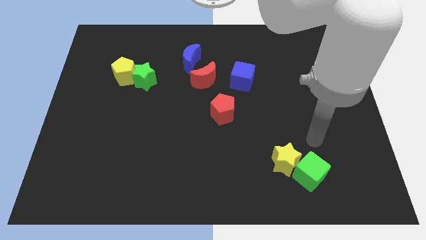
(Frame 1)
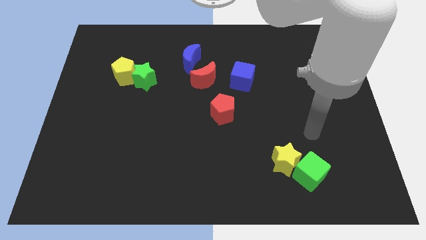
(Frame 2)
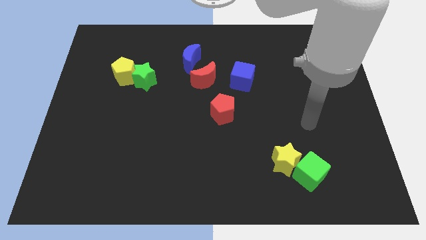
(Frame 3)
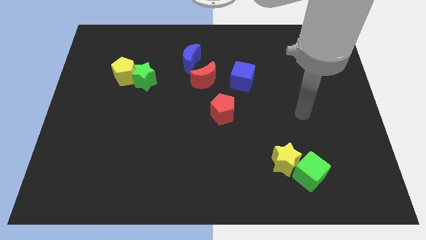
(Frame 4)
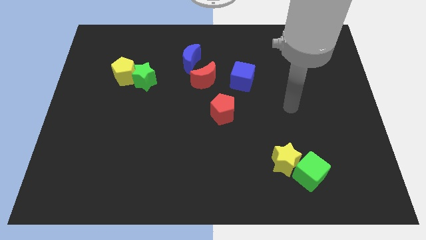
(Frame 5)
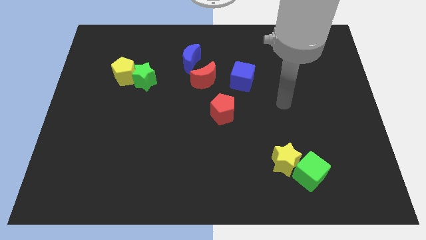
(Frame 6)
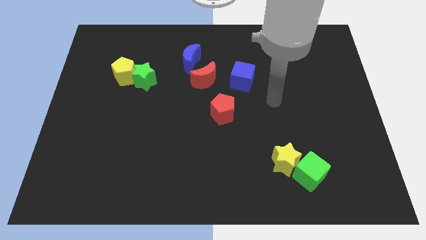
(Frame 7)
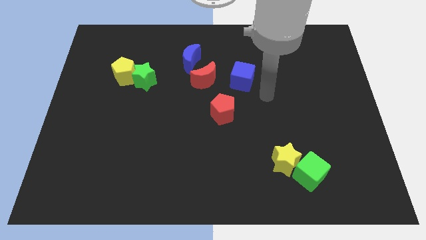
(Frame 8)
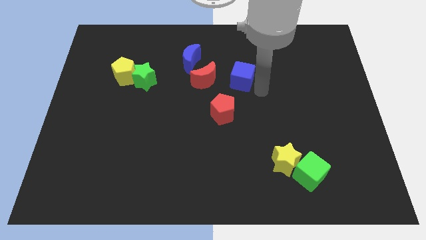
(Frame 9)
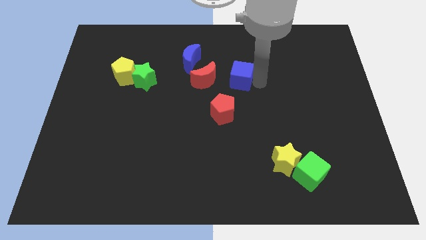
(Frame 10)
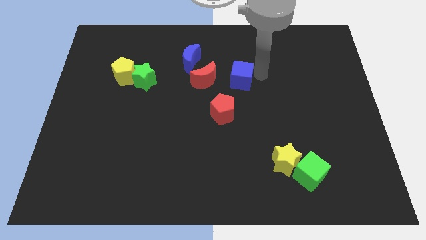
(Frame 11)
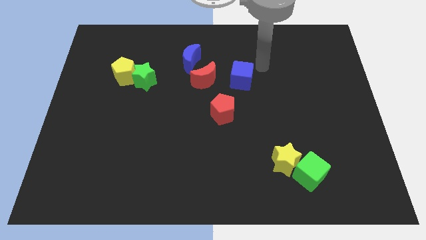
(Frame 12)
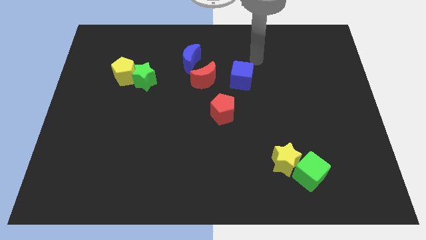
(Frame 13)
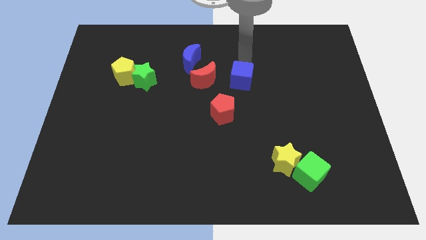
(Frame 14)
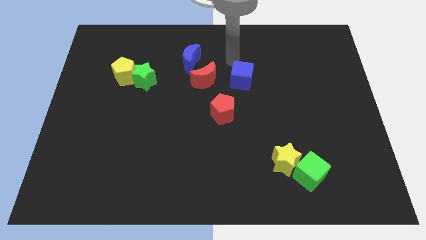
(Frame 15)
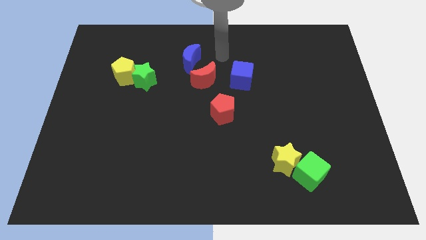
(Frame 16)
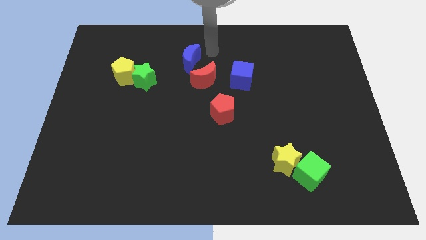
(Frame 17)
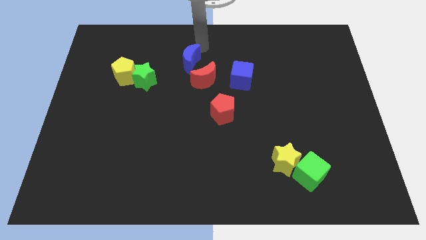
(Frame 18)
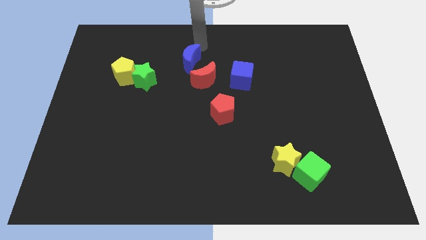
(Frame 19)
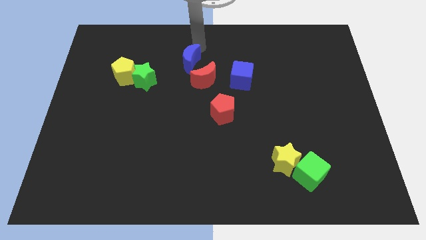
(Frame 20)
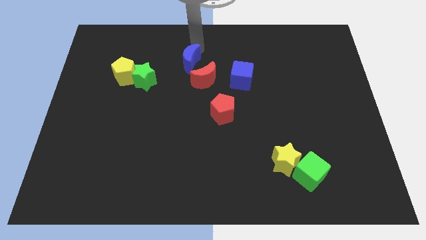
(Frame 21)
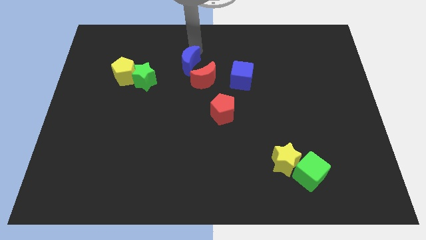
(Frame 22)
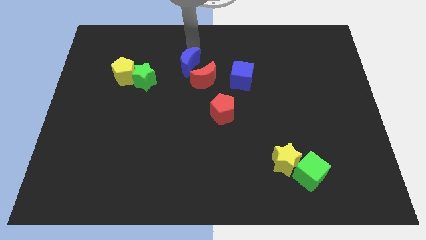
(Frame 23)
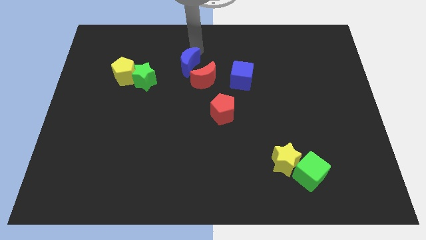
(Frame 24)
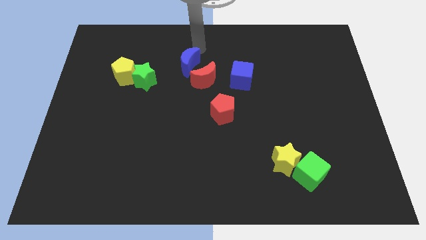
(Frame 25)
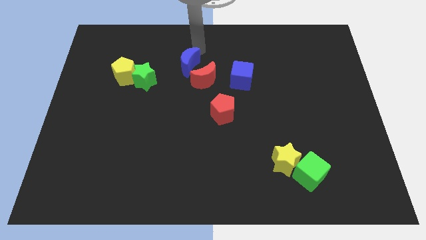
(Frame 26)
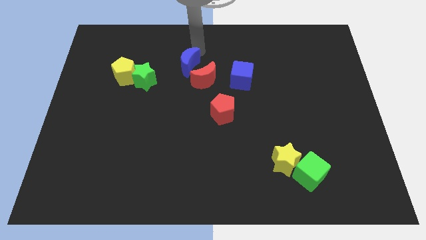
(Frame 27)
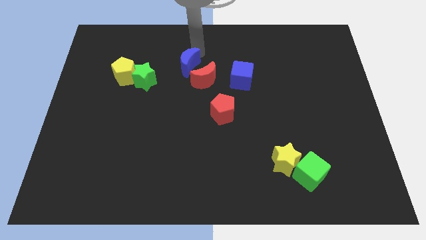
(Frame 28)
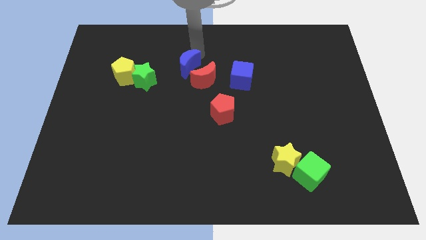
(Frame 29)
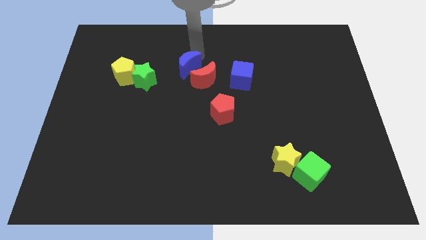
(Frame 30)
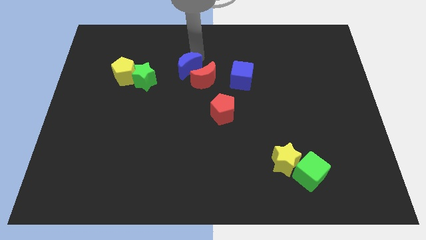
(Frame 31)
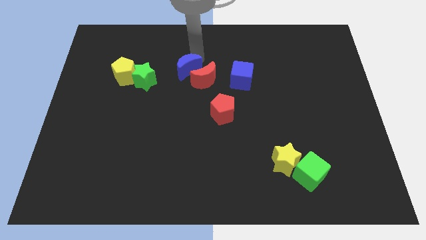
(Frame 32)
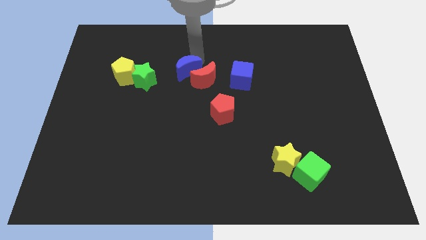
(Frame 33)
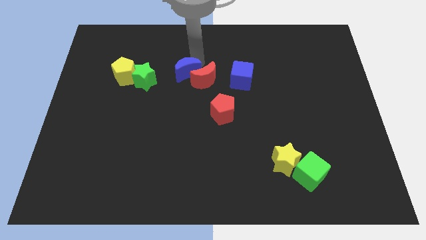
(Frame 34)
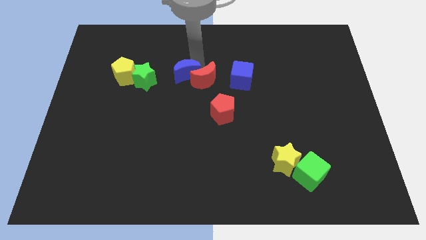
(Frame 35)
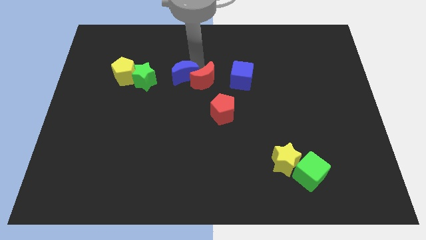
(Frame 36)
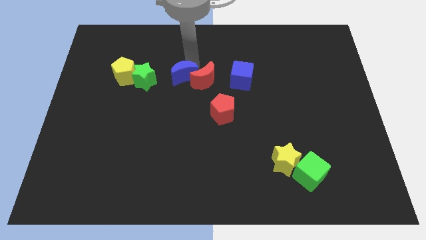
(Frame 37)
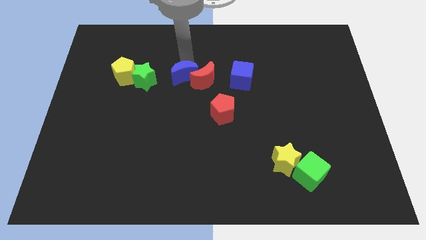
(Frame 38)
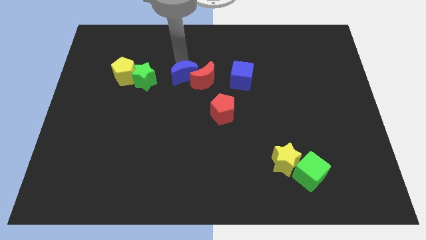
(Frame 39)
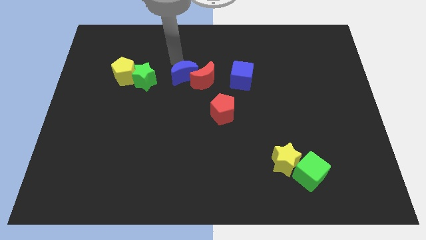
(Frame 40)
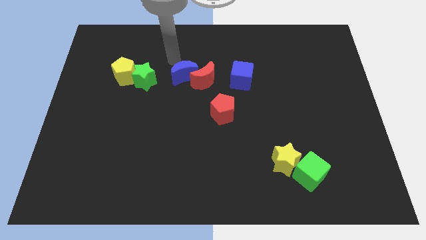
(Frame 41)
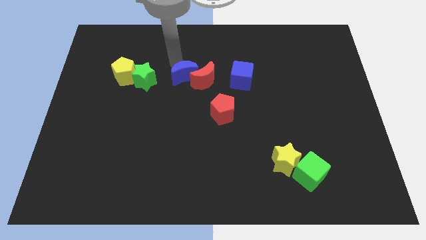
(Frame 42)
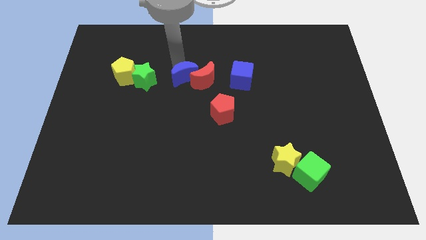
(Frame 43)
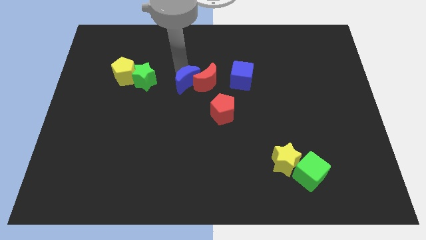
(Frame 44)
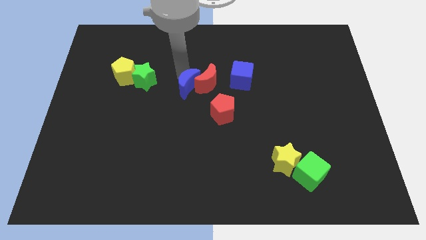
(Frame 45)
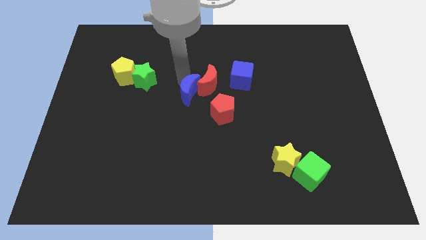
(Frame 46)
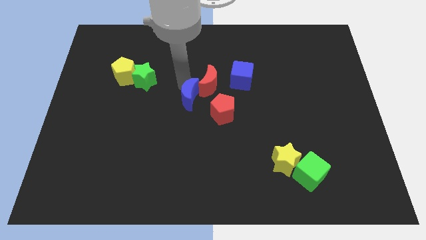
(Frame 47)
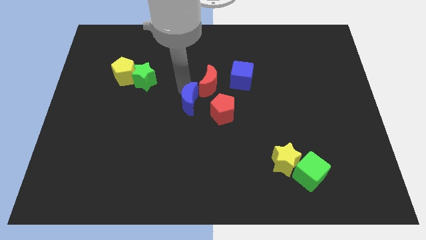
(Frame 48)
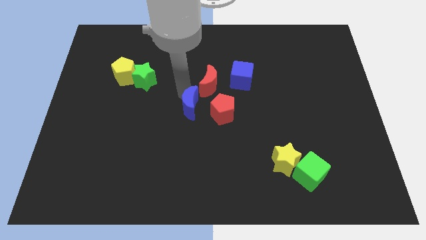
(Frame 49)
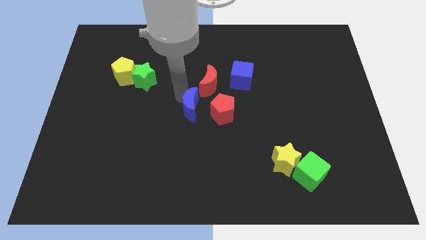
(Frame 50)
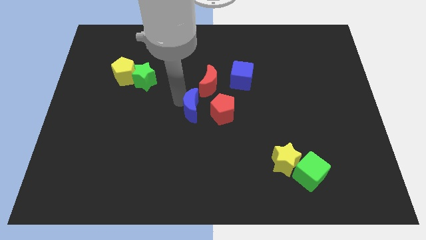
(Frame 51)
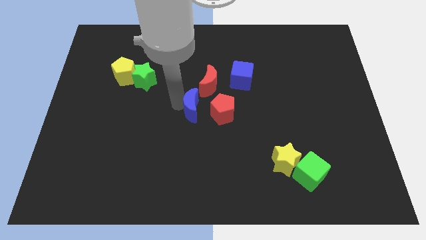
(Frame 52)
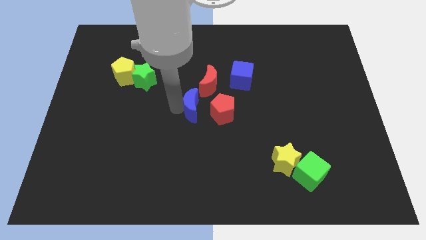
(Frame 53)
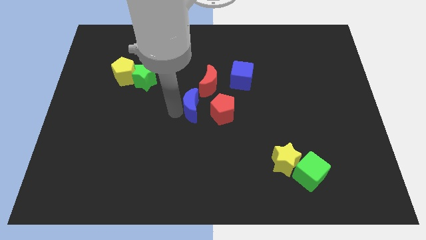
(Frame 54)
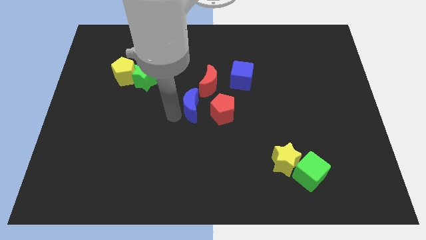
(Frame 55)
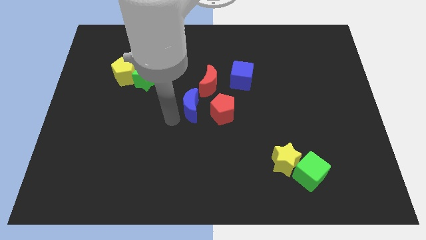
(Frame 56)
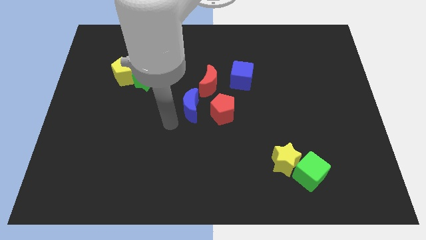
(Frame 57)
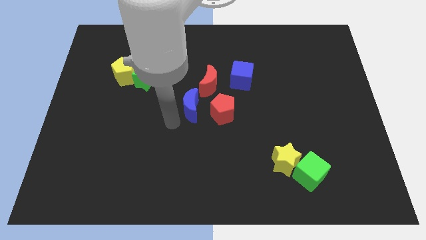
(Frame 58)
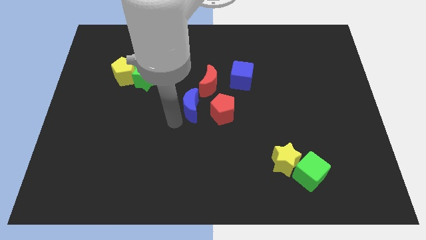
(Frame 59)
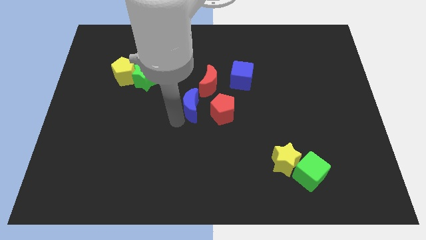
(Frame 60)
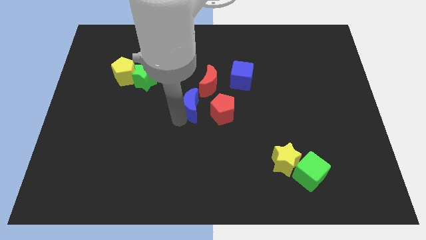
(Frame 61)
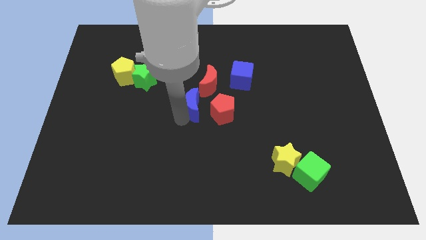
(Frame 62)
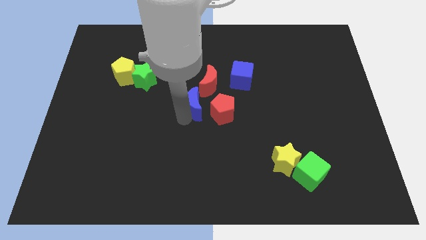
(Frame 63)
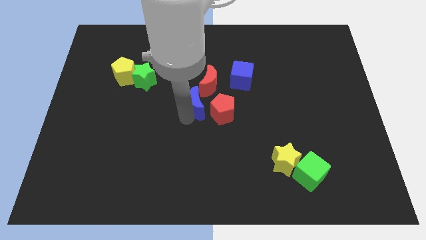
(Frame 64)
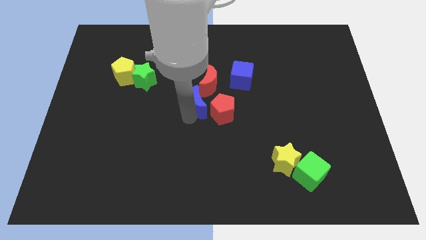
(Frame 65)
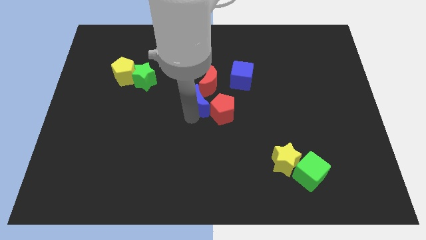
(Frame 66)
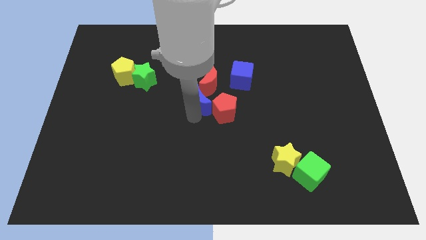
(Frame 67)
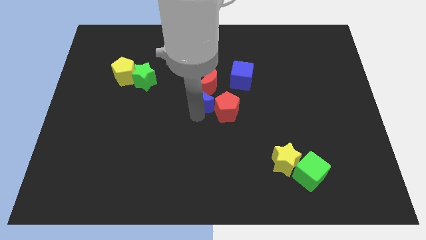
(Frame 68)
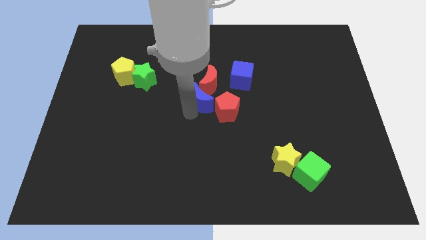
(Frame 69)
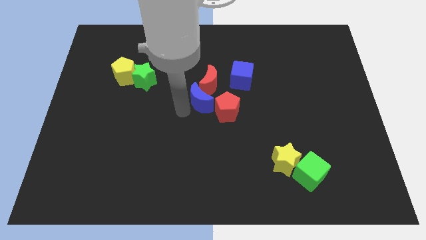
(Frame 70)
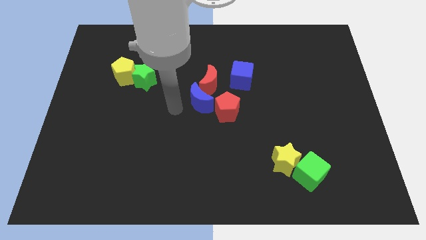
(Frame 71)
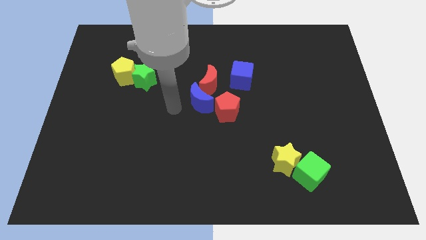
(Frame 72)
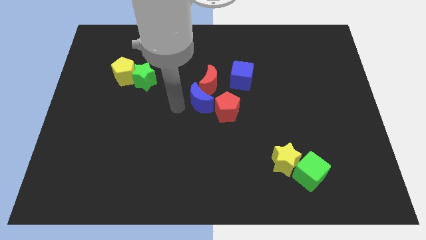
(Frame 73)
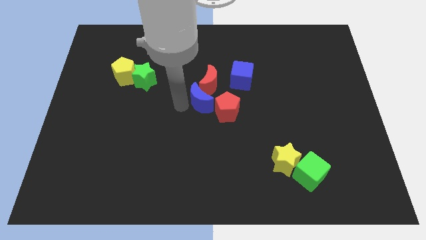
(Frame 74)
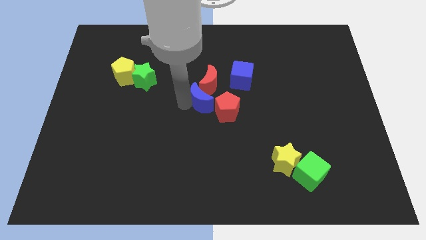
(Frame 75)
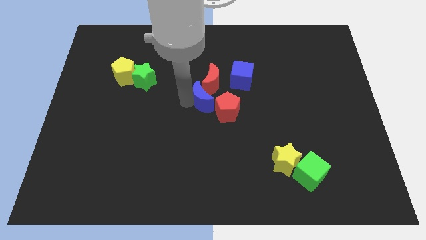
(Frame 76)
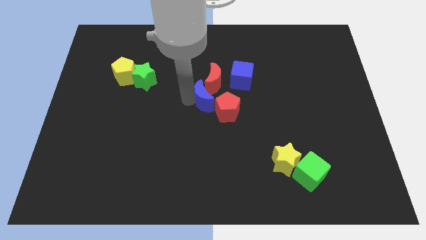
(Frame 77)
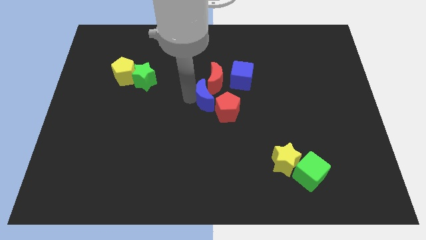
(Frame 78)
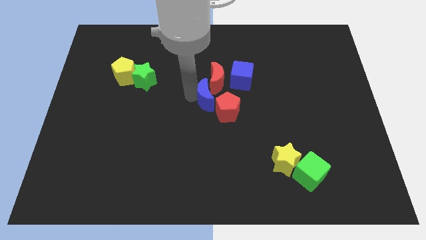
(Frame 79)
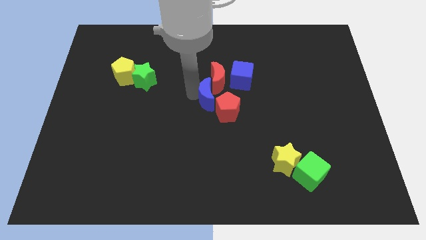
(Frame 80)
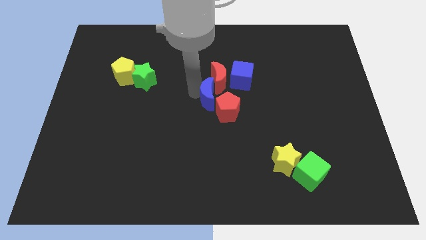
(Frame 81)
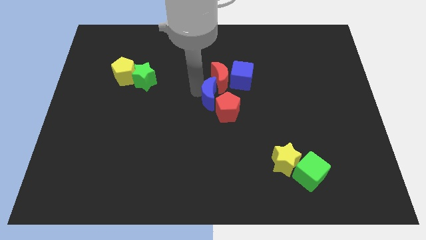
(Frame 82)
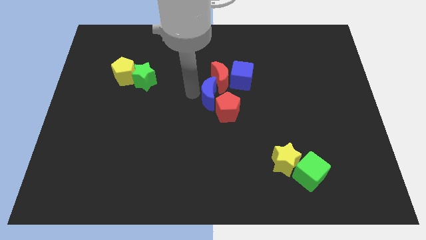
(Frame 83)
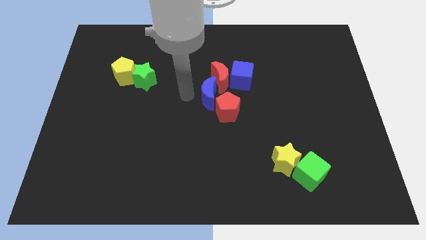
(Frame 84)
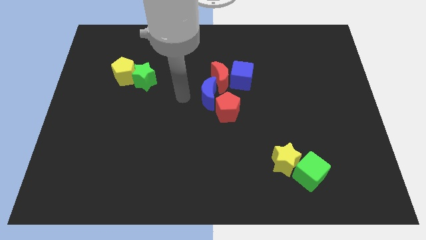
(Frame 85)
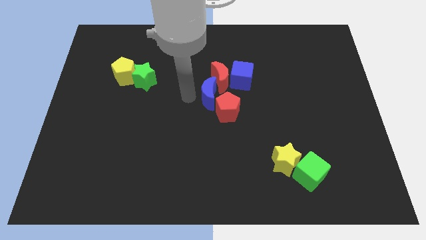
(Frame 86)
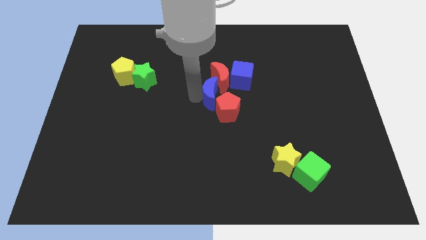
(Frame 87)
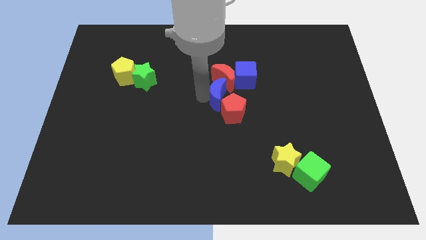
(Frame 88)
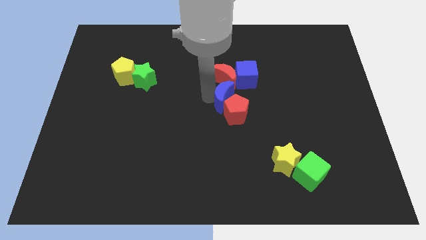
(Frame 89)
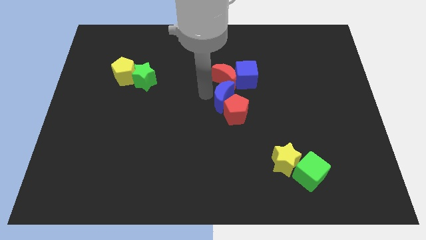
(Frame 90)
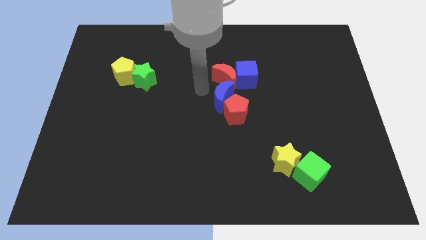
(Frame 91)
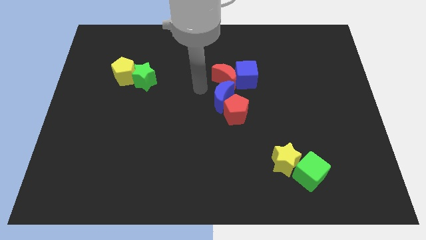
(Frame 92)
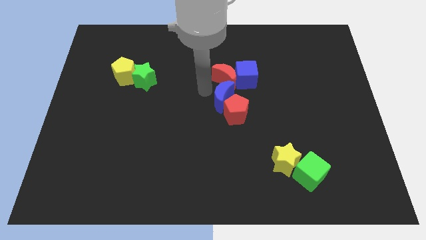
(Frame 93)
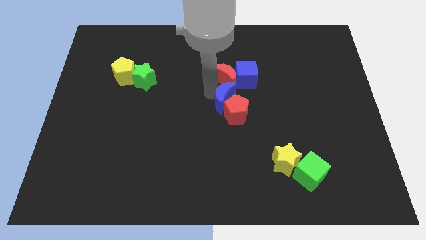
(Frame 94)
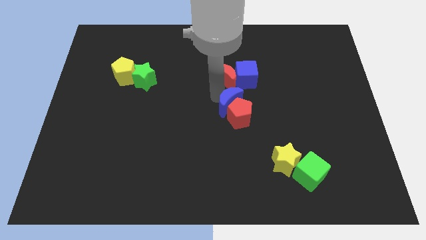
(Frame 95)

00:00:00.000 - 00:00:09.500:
slide the blue moon to the bottom of the blue cube
